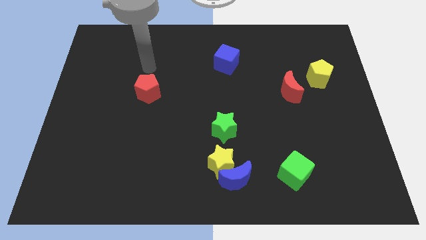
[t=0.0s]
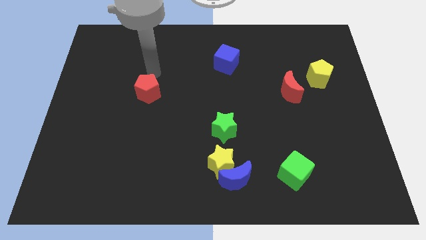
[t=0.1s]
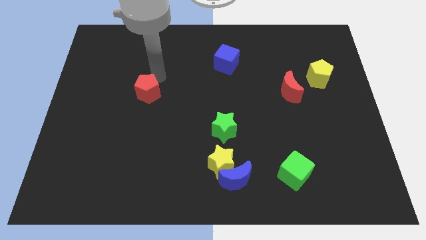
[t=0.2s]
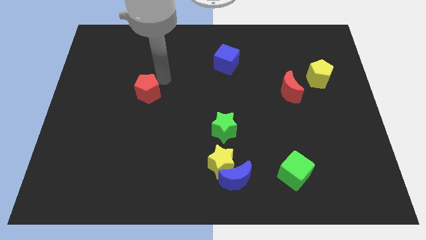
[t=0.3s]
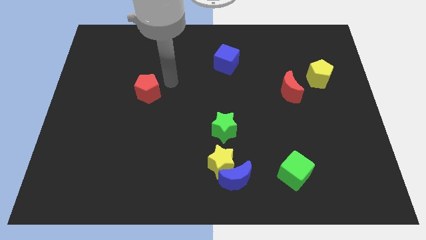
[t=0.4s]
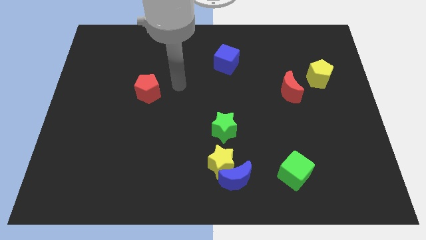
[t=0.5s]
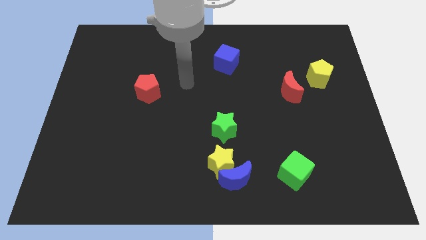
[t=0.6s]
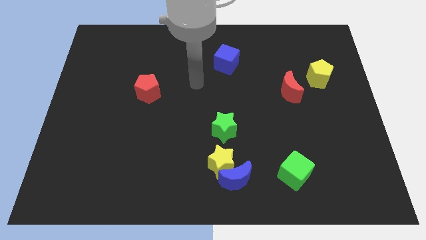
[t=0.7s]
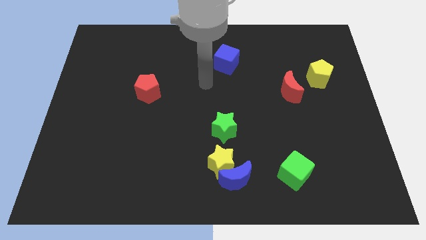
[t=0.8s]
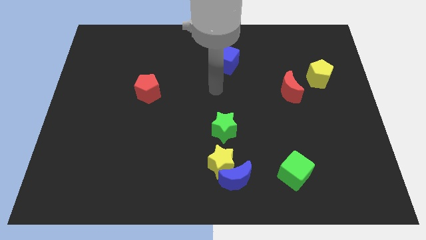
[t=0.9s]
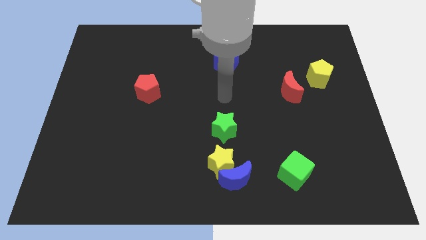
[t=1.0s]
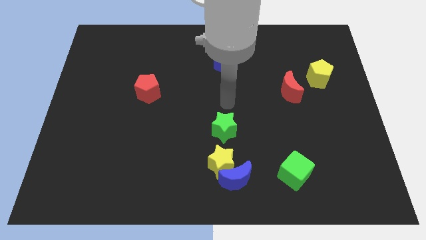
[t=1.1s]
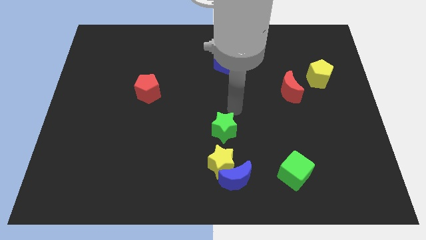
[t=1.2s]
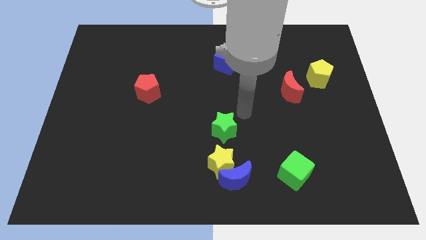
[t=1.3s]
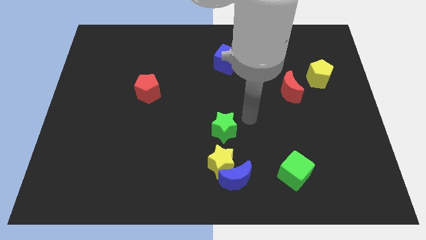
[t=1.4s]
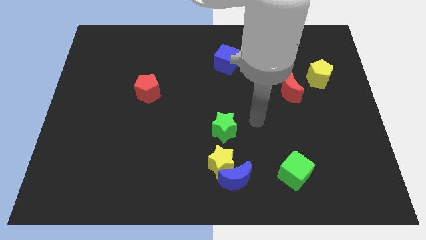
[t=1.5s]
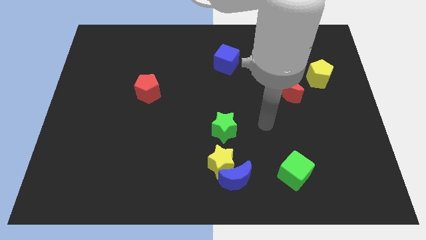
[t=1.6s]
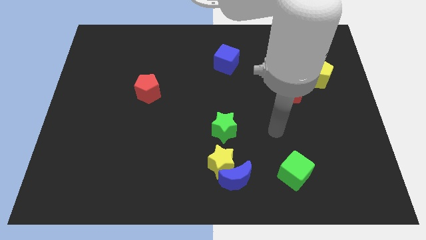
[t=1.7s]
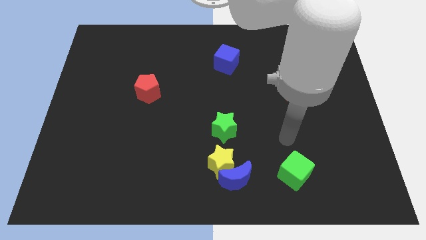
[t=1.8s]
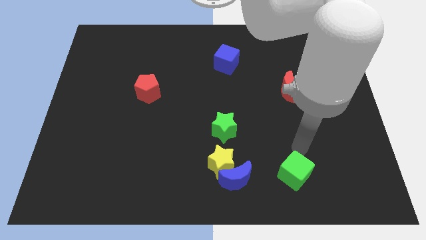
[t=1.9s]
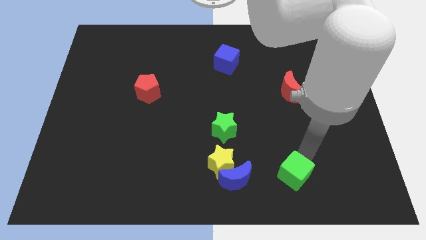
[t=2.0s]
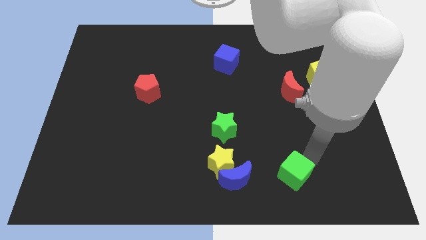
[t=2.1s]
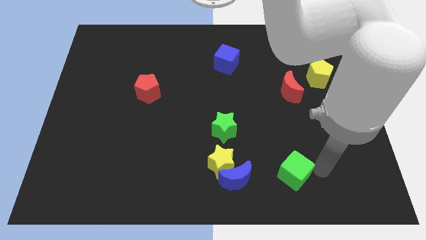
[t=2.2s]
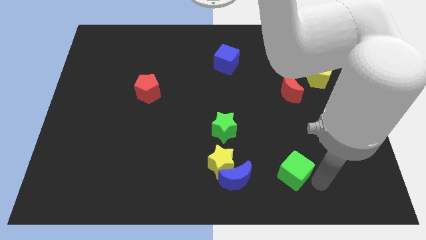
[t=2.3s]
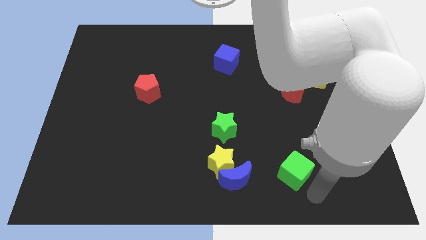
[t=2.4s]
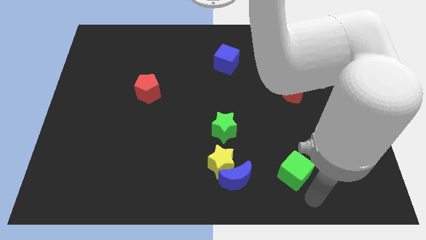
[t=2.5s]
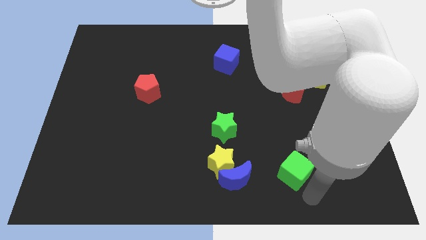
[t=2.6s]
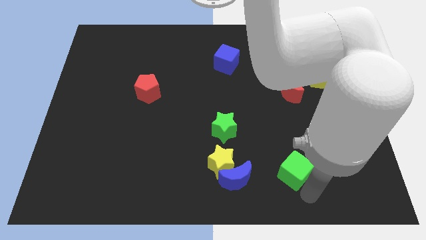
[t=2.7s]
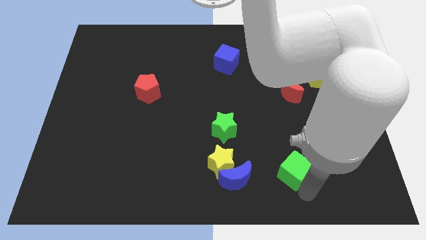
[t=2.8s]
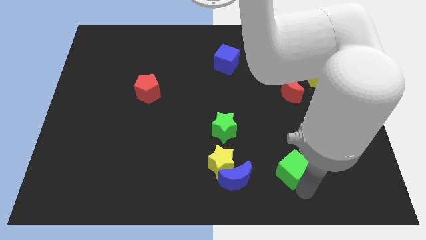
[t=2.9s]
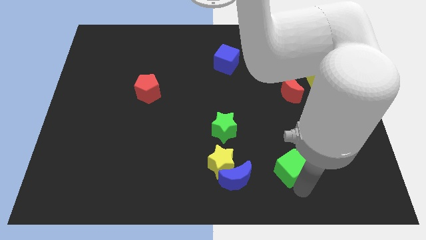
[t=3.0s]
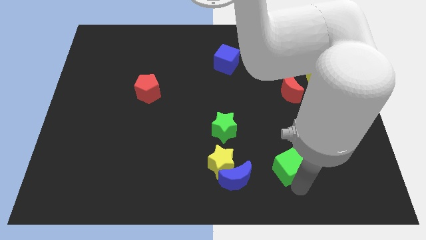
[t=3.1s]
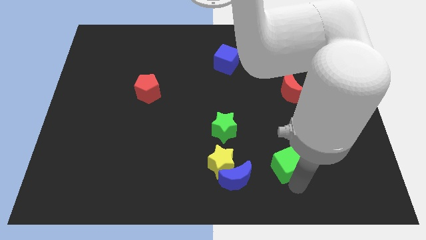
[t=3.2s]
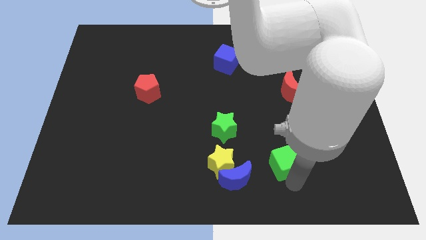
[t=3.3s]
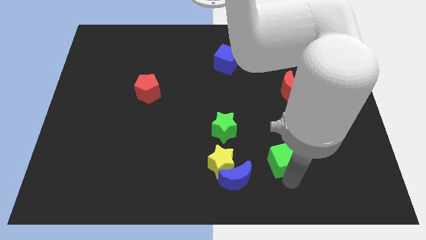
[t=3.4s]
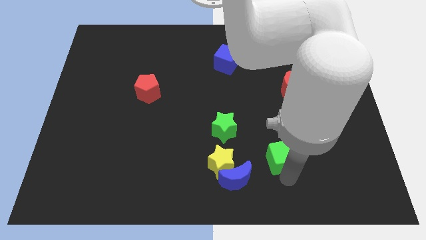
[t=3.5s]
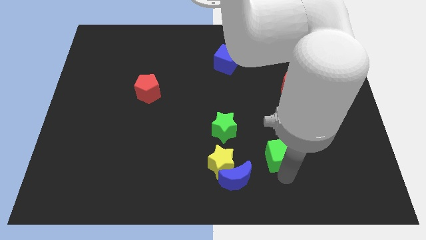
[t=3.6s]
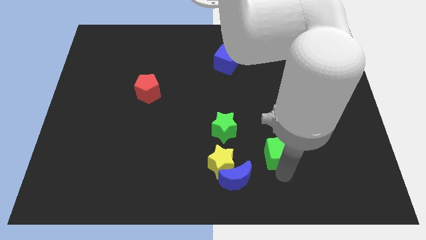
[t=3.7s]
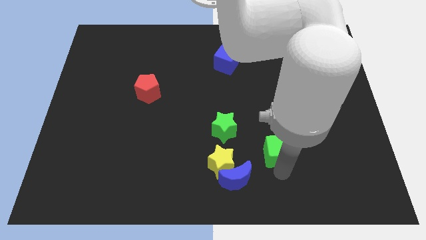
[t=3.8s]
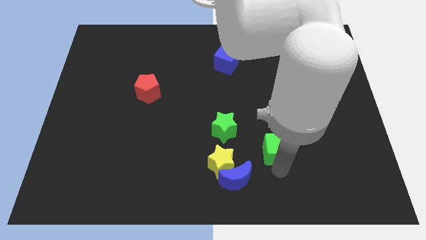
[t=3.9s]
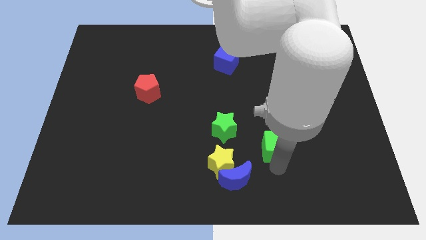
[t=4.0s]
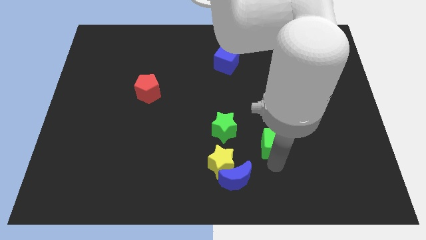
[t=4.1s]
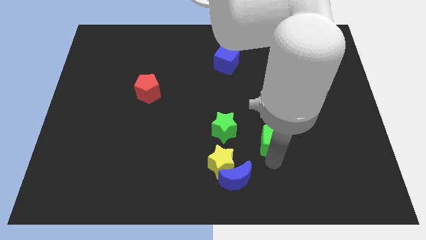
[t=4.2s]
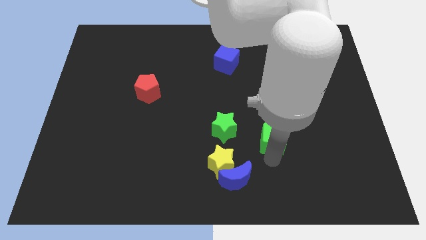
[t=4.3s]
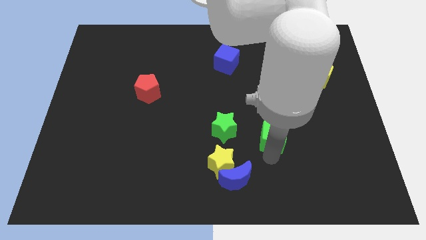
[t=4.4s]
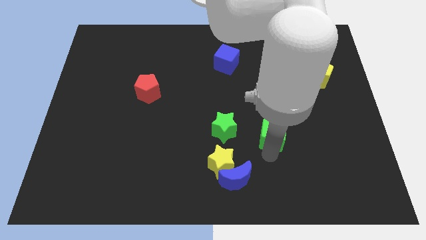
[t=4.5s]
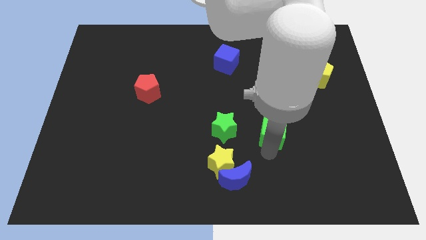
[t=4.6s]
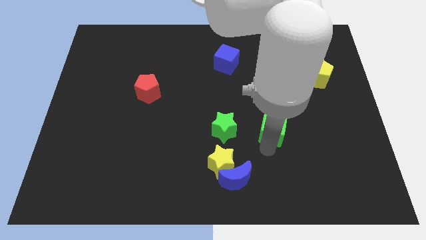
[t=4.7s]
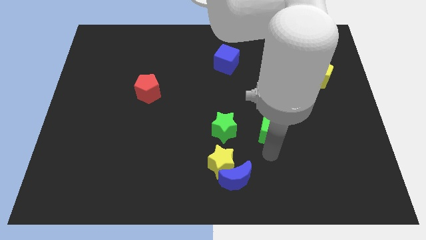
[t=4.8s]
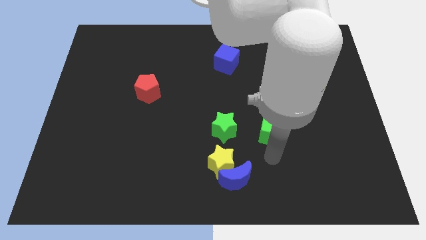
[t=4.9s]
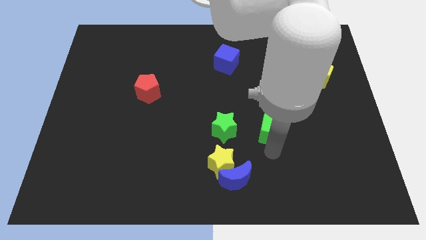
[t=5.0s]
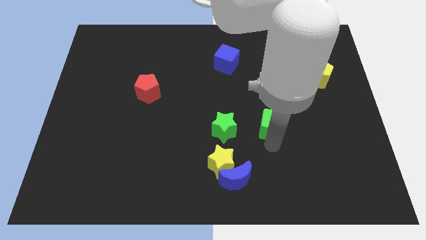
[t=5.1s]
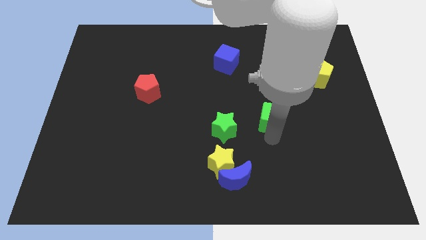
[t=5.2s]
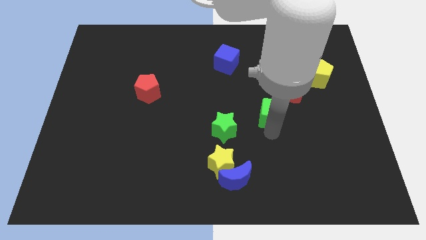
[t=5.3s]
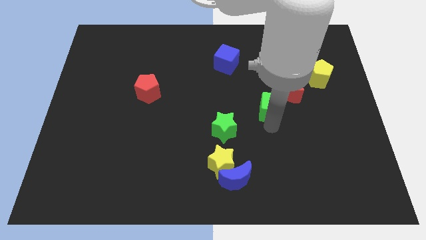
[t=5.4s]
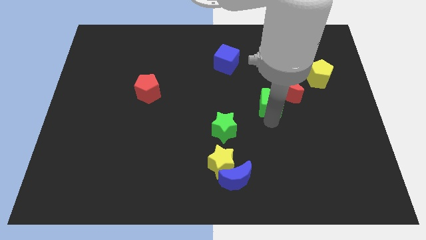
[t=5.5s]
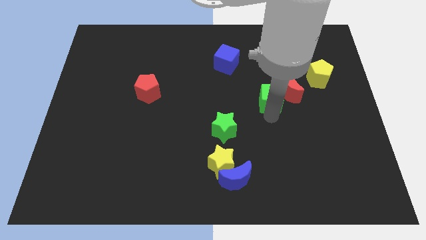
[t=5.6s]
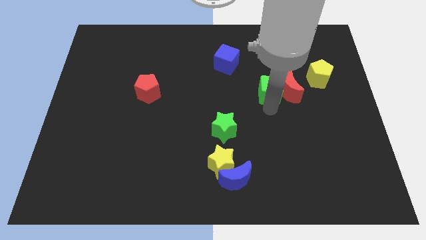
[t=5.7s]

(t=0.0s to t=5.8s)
push the green cube upwards

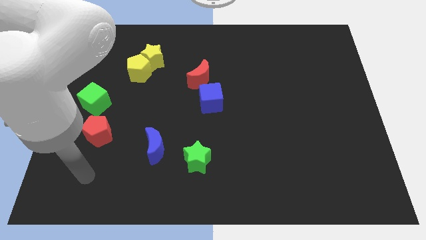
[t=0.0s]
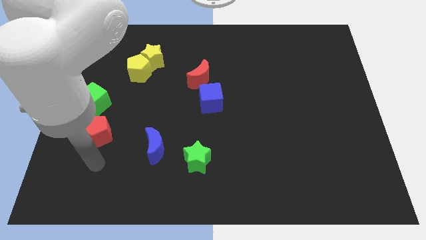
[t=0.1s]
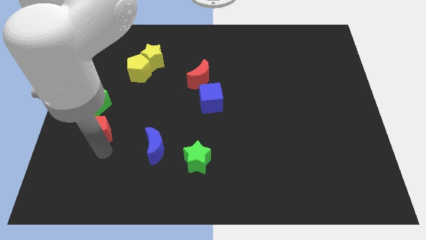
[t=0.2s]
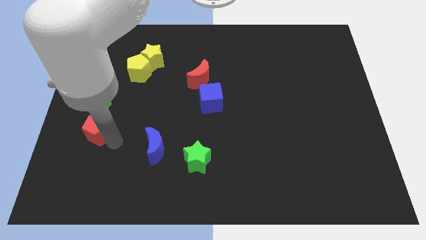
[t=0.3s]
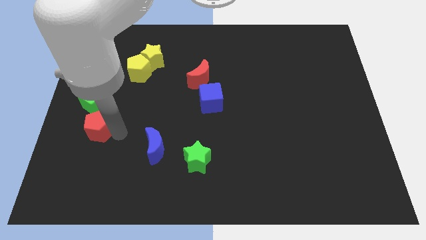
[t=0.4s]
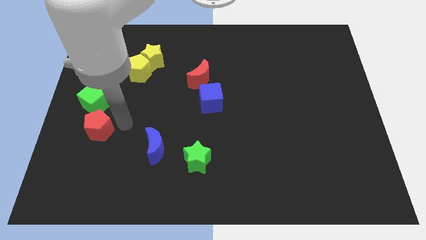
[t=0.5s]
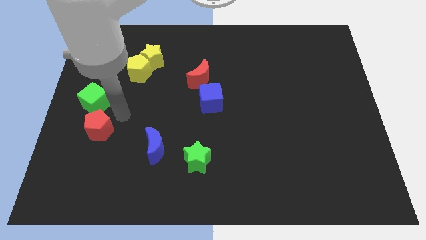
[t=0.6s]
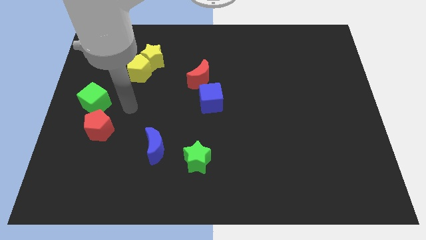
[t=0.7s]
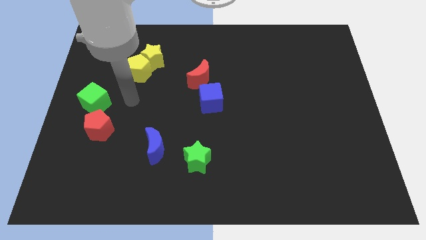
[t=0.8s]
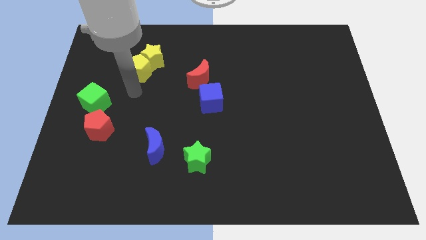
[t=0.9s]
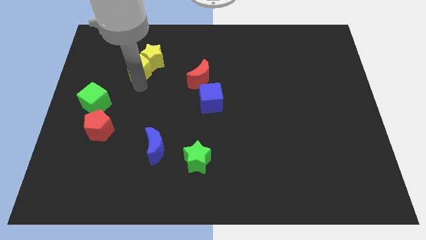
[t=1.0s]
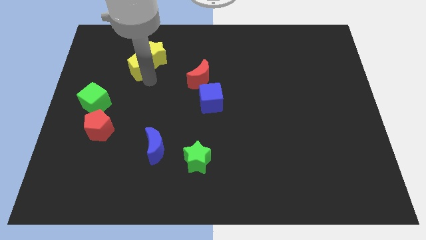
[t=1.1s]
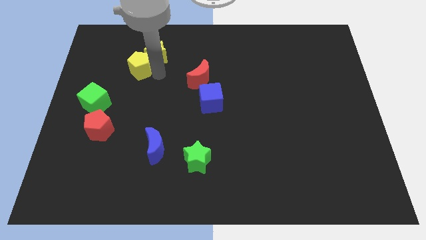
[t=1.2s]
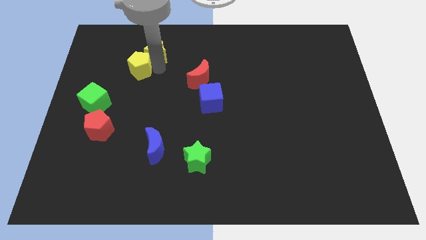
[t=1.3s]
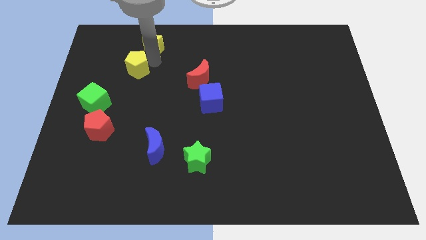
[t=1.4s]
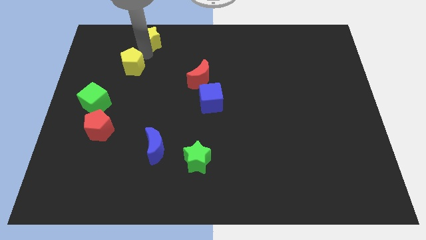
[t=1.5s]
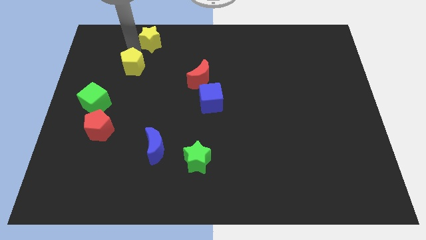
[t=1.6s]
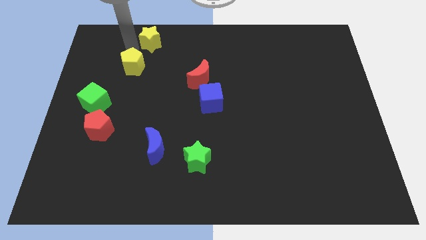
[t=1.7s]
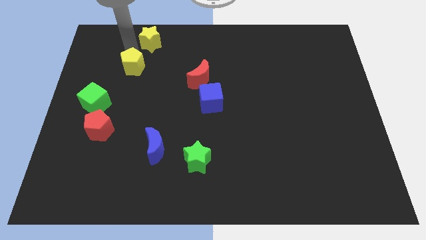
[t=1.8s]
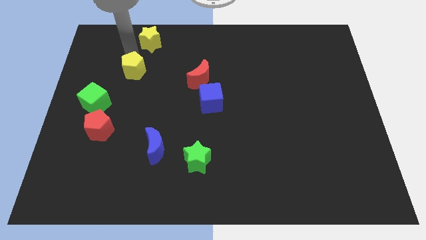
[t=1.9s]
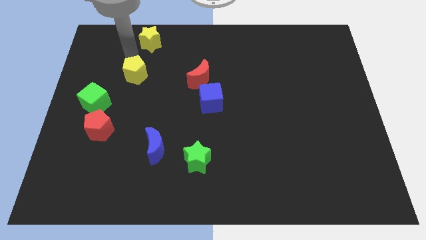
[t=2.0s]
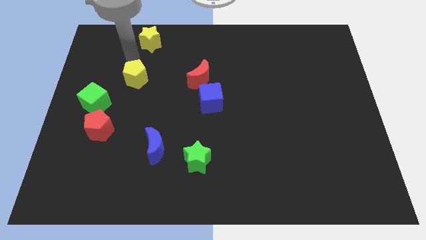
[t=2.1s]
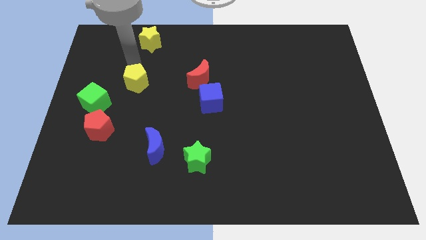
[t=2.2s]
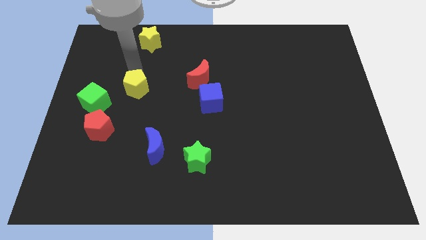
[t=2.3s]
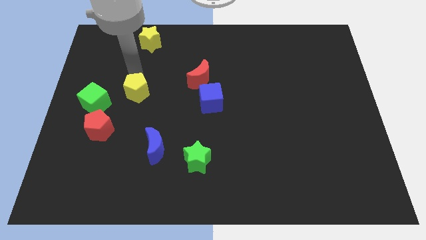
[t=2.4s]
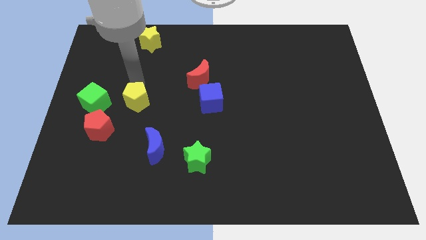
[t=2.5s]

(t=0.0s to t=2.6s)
slightly slide the yellow pentagon downwards
